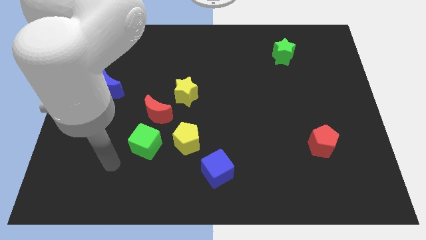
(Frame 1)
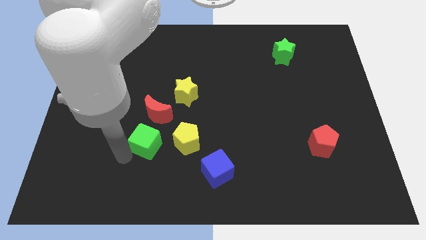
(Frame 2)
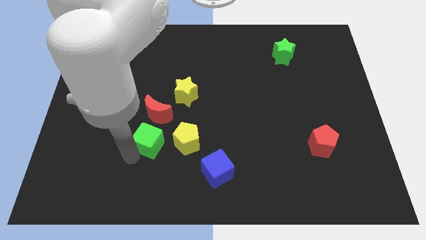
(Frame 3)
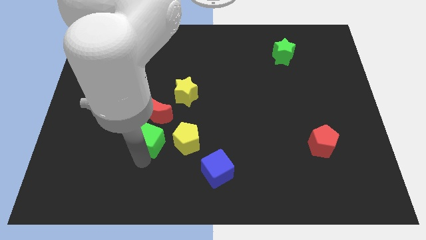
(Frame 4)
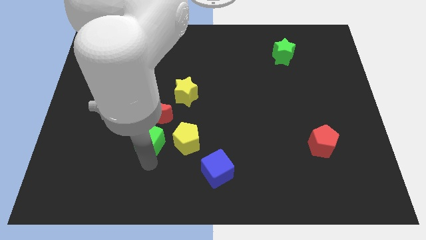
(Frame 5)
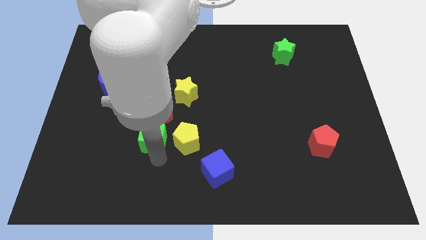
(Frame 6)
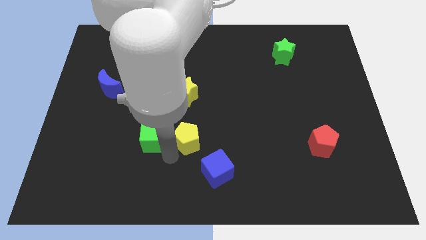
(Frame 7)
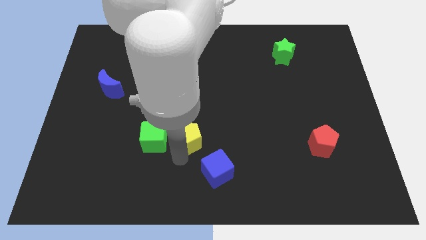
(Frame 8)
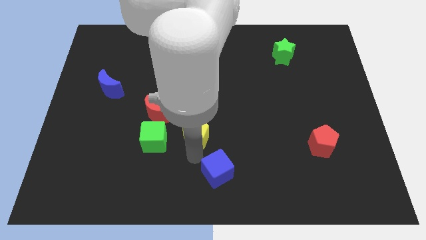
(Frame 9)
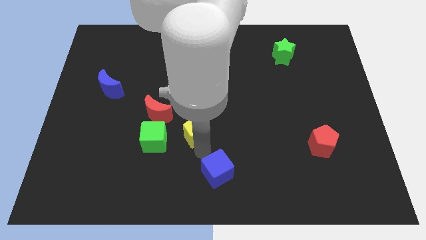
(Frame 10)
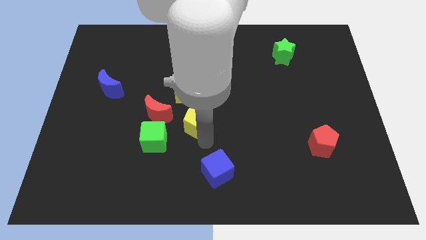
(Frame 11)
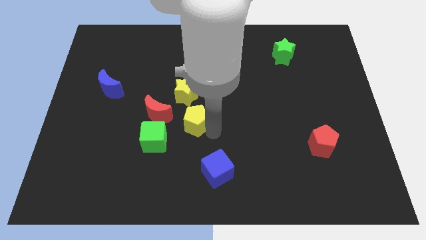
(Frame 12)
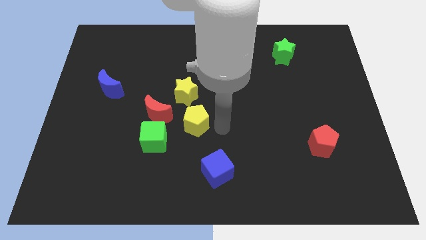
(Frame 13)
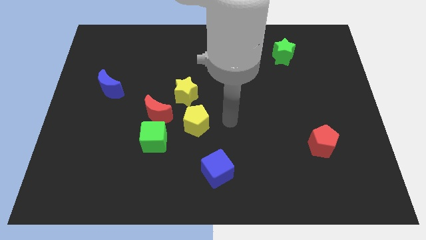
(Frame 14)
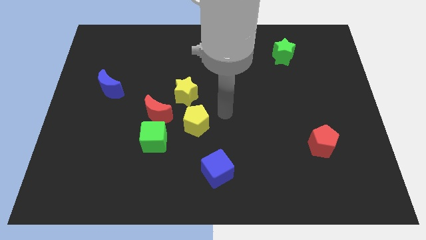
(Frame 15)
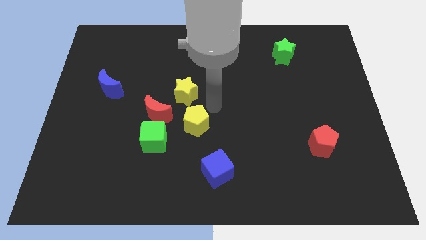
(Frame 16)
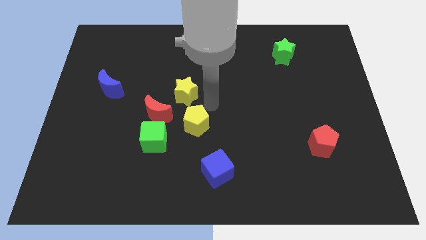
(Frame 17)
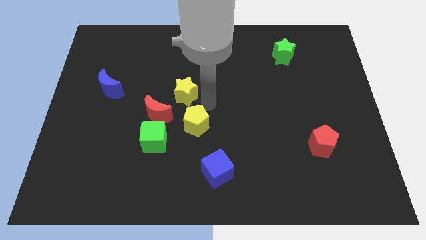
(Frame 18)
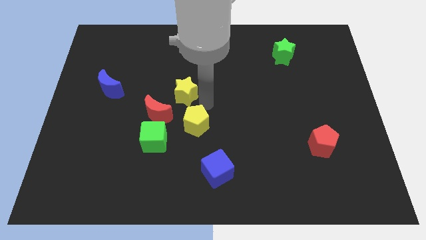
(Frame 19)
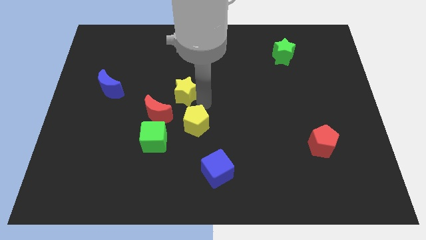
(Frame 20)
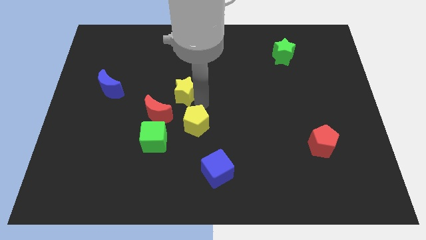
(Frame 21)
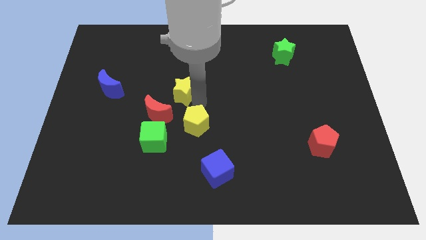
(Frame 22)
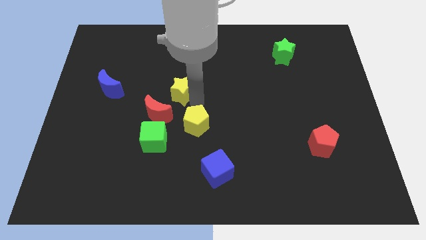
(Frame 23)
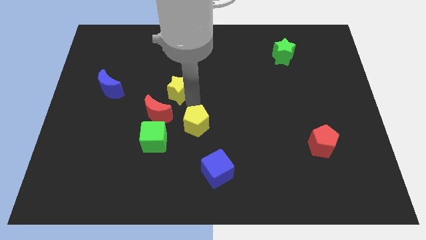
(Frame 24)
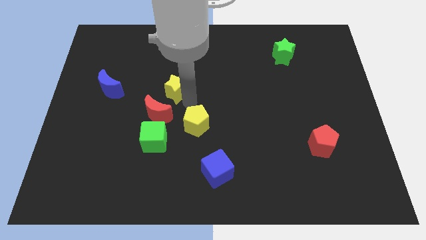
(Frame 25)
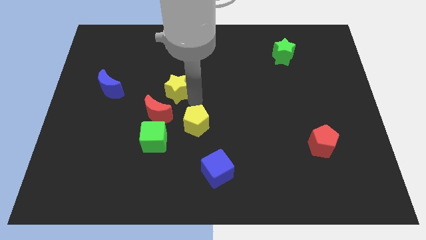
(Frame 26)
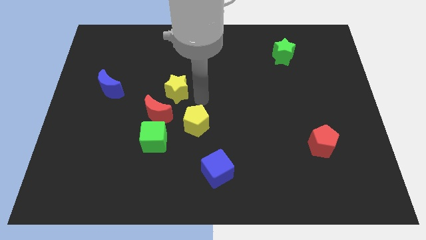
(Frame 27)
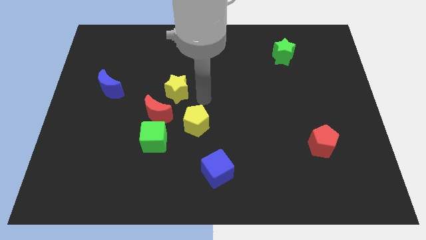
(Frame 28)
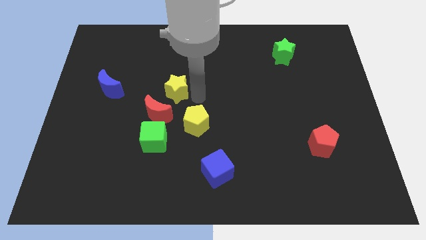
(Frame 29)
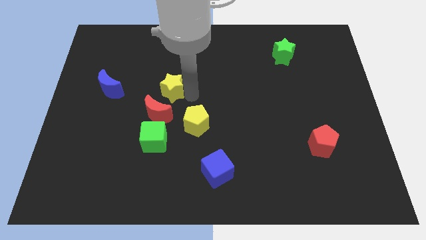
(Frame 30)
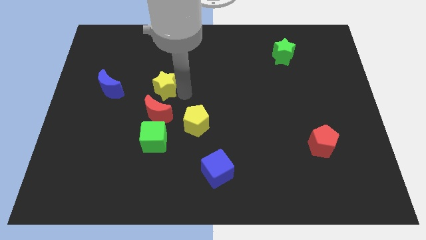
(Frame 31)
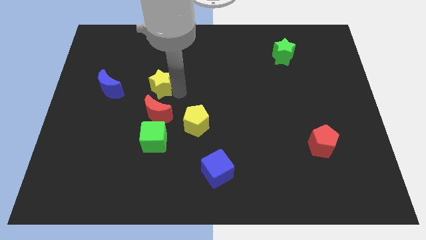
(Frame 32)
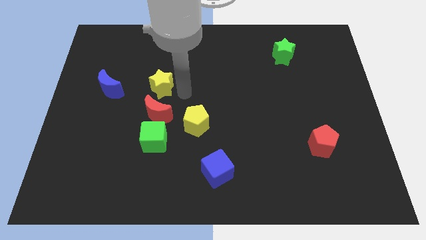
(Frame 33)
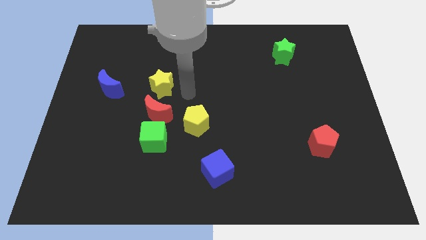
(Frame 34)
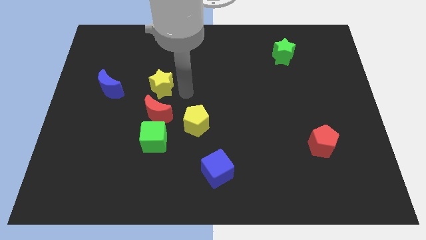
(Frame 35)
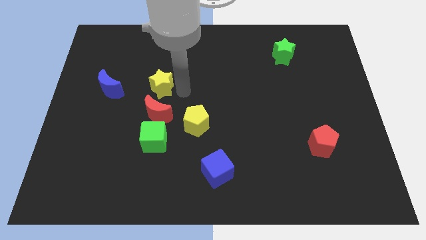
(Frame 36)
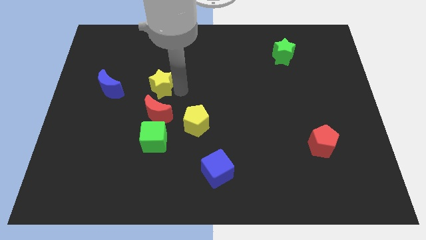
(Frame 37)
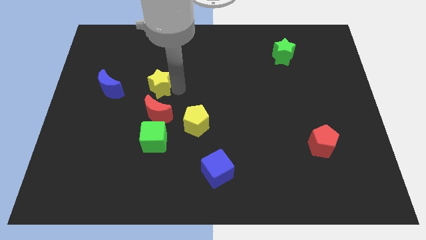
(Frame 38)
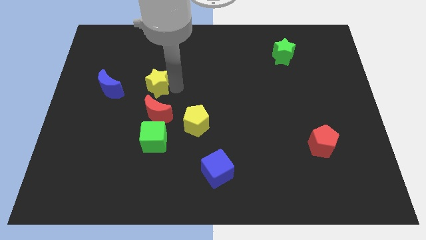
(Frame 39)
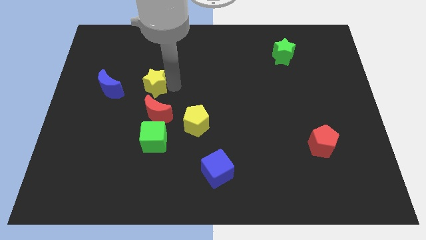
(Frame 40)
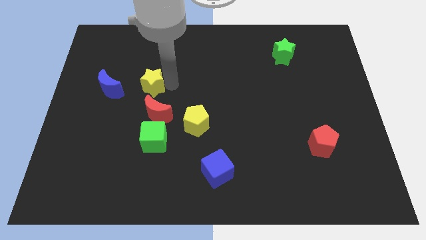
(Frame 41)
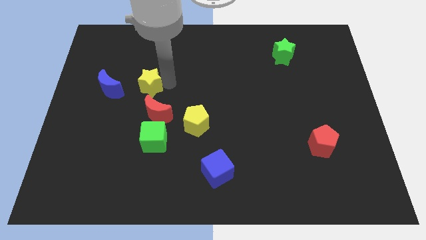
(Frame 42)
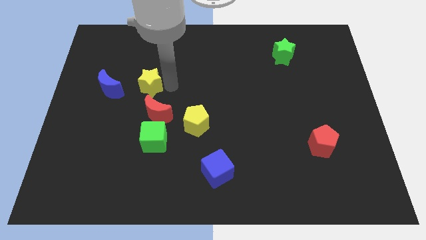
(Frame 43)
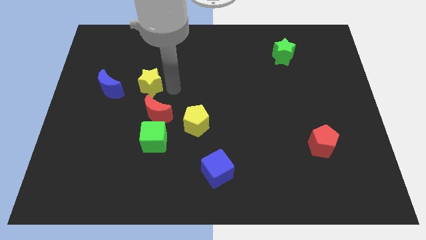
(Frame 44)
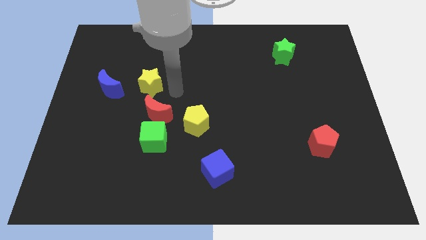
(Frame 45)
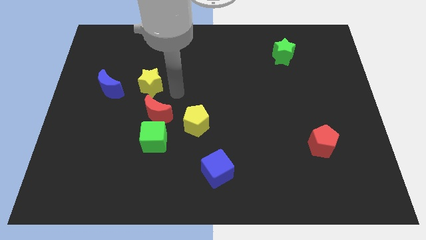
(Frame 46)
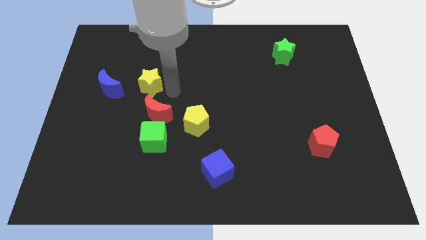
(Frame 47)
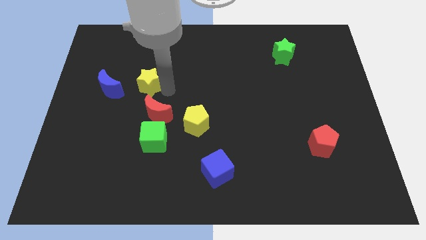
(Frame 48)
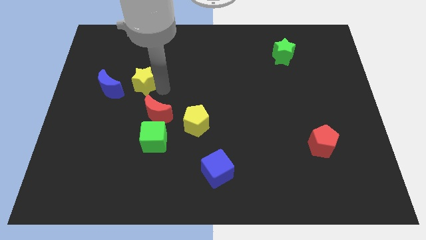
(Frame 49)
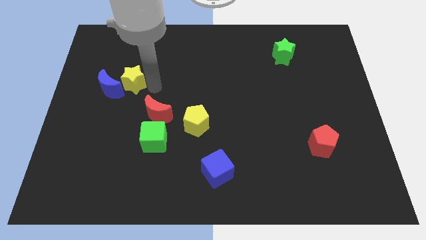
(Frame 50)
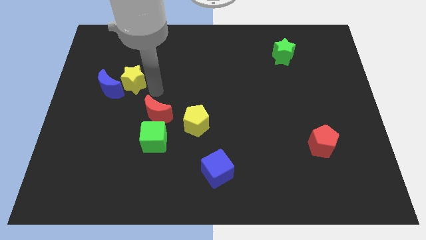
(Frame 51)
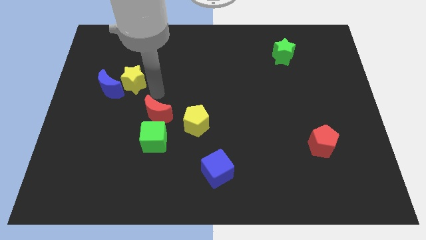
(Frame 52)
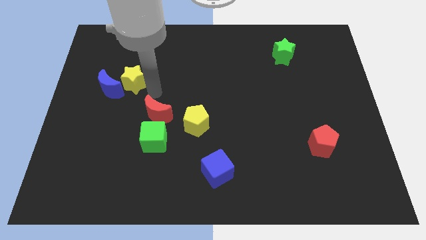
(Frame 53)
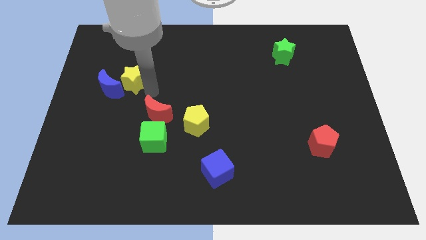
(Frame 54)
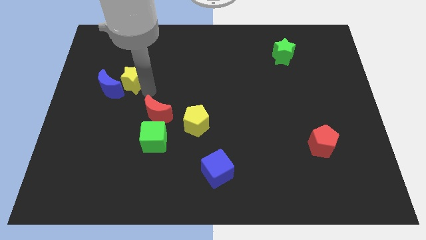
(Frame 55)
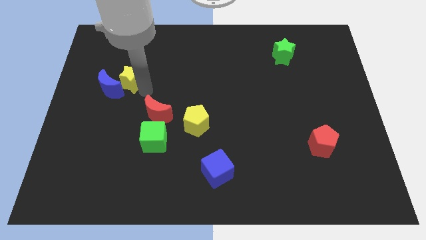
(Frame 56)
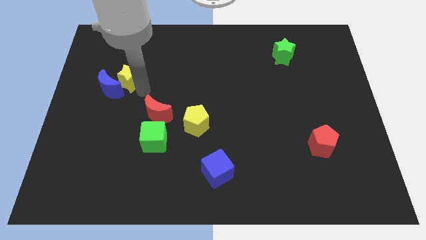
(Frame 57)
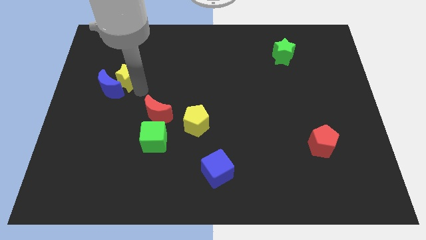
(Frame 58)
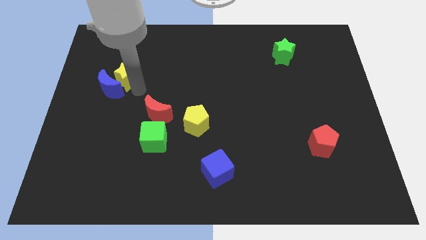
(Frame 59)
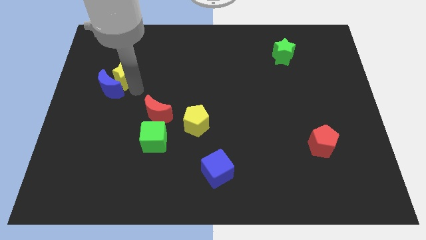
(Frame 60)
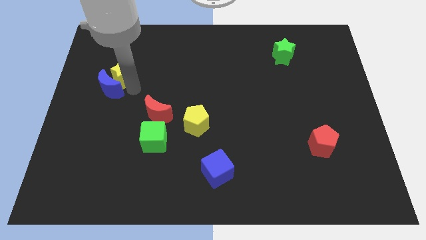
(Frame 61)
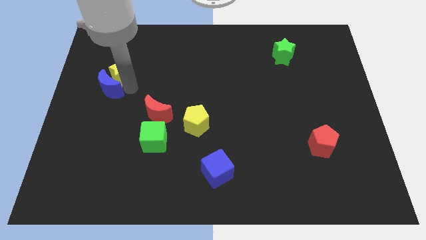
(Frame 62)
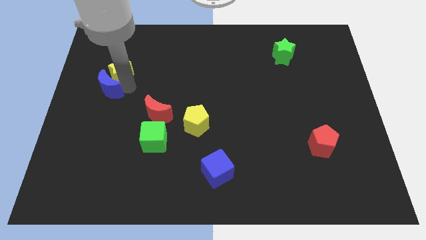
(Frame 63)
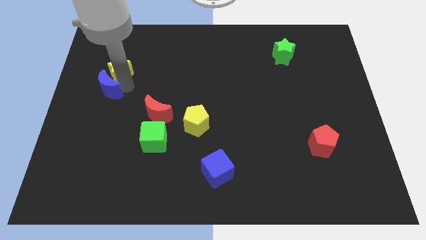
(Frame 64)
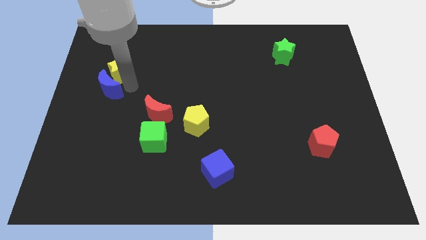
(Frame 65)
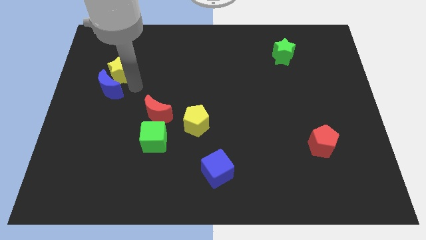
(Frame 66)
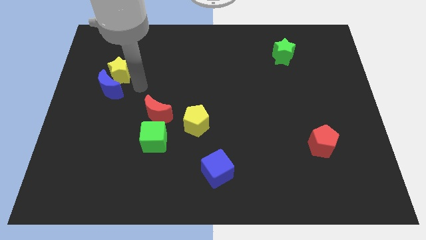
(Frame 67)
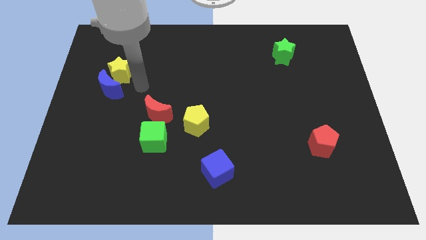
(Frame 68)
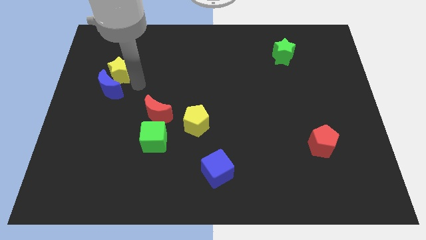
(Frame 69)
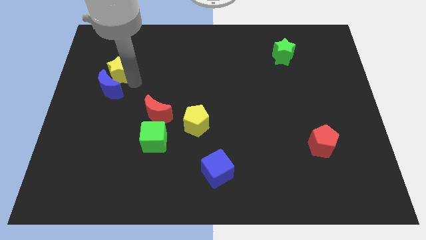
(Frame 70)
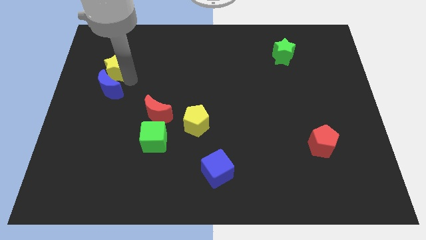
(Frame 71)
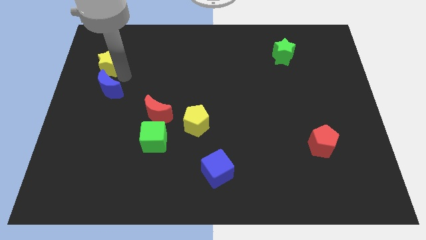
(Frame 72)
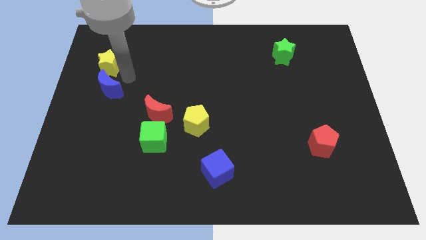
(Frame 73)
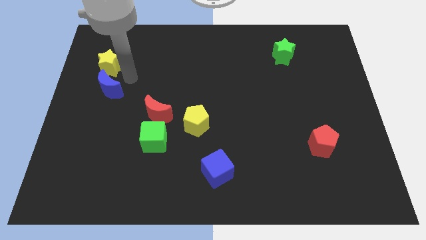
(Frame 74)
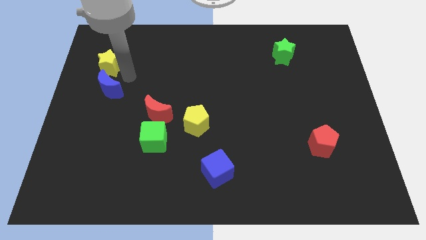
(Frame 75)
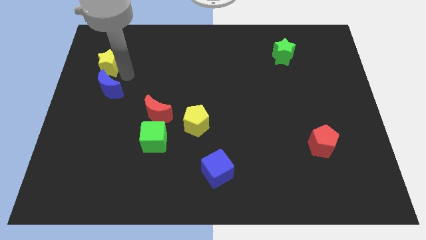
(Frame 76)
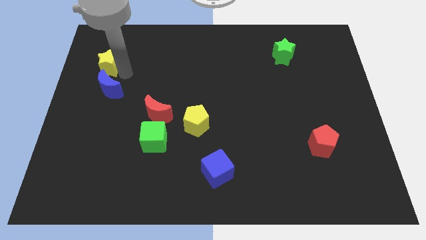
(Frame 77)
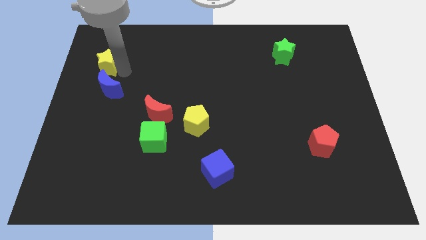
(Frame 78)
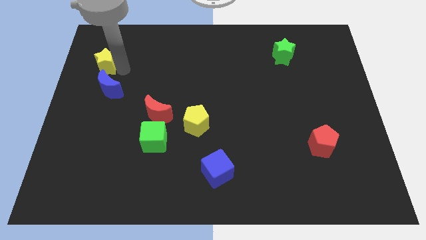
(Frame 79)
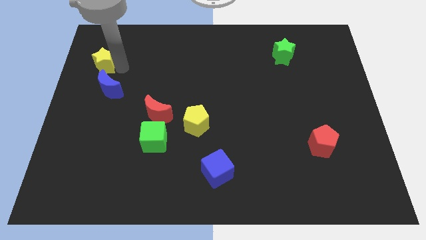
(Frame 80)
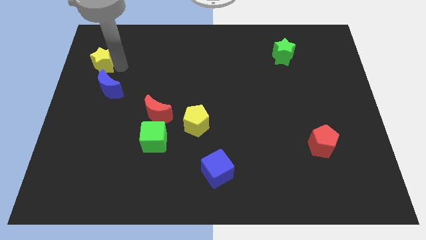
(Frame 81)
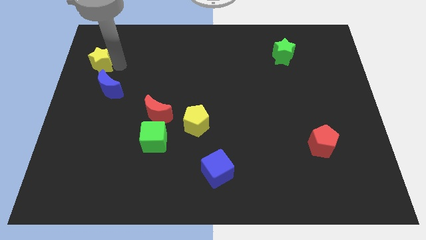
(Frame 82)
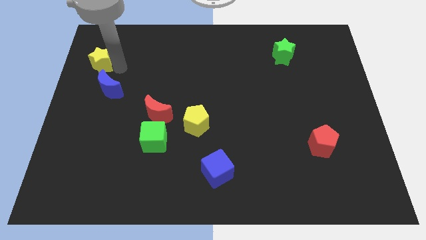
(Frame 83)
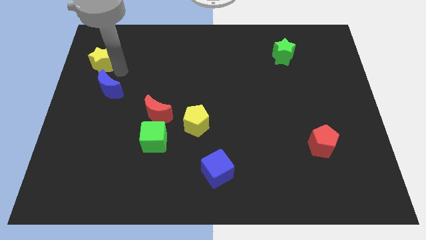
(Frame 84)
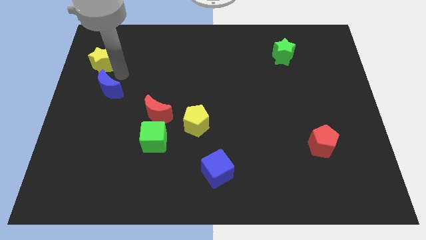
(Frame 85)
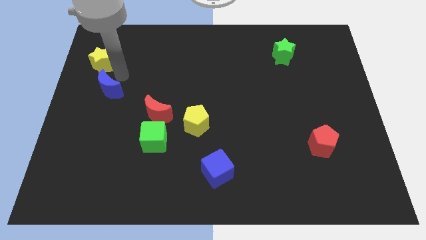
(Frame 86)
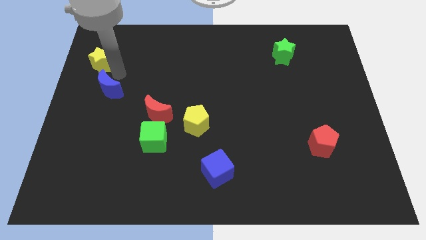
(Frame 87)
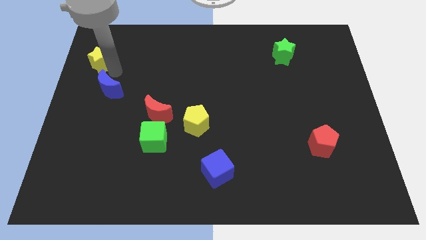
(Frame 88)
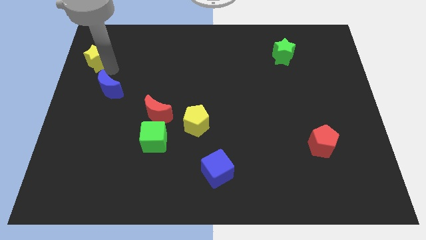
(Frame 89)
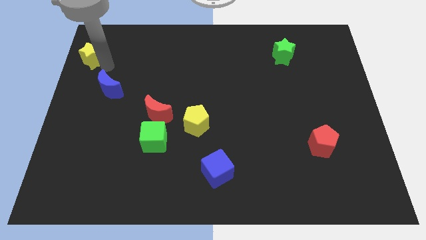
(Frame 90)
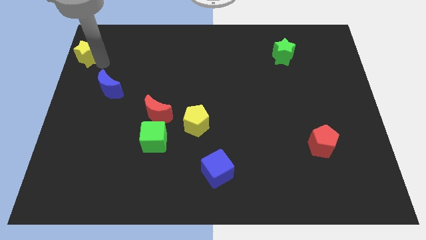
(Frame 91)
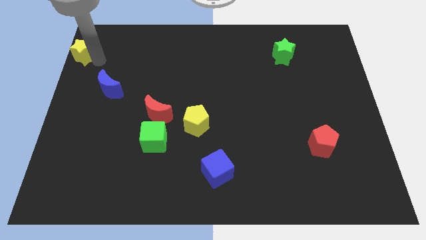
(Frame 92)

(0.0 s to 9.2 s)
slide the yellow star to the upper left corner
